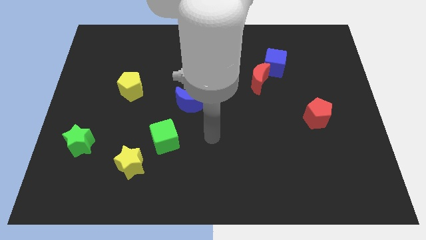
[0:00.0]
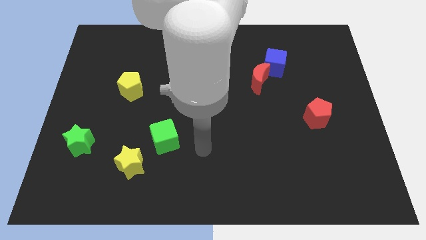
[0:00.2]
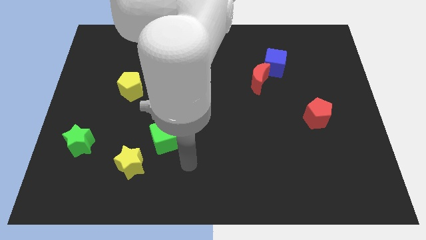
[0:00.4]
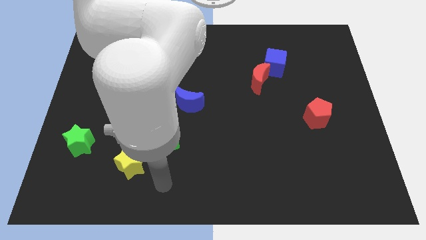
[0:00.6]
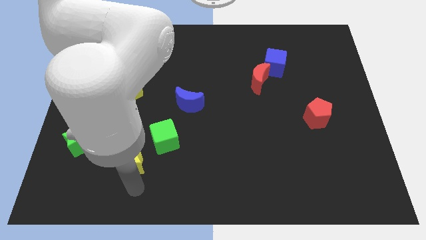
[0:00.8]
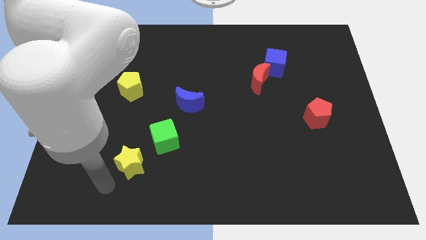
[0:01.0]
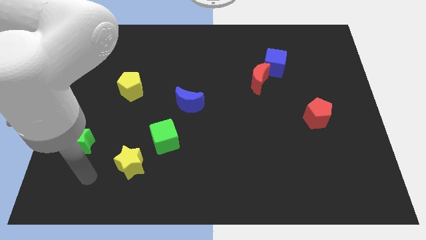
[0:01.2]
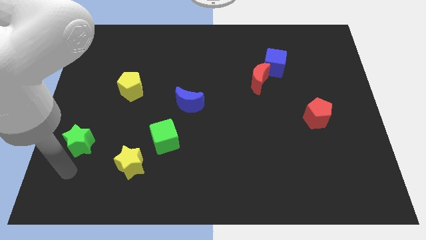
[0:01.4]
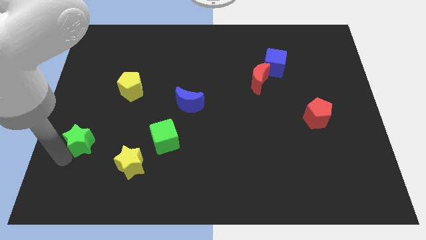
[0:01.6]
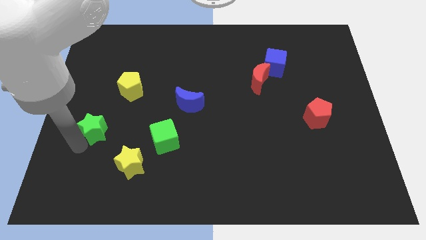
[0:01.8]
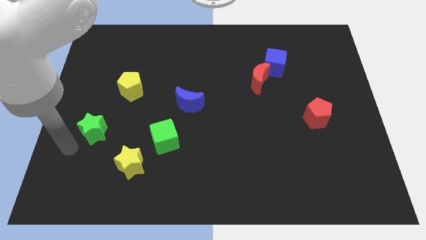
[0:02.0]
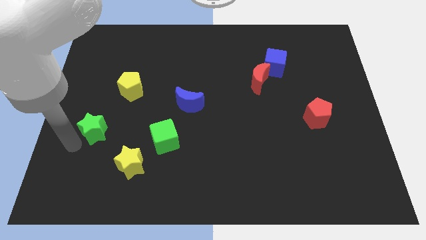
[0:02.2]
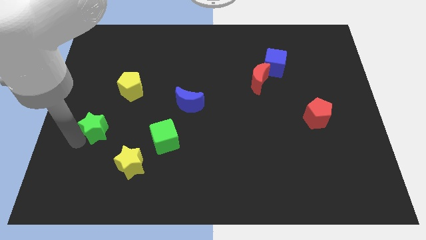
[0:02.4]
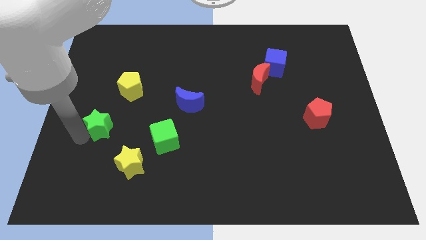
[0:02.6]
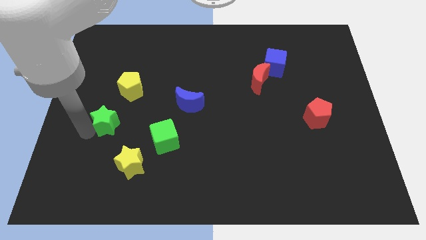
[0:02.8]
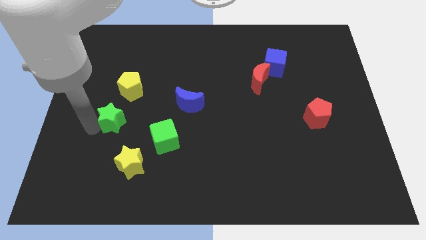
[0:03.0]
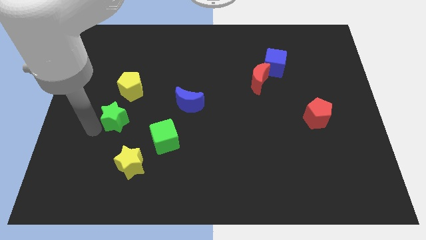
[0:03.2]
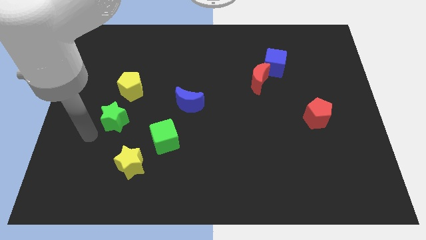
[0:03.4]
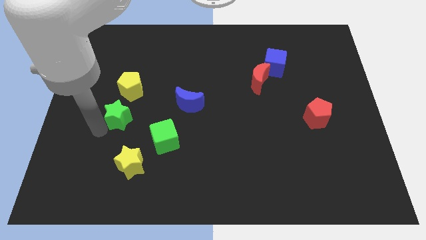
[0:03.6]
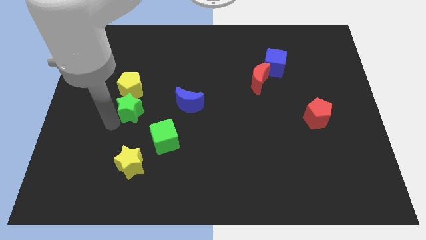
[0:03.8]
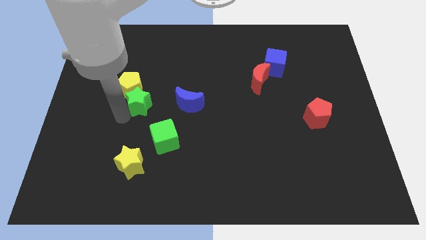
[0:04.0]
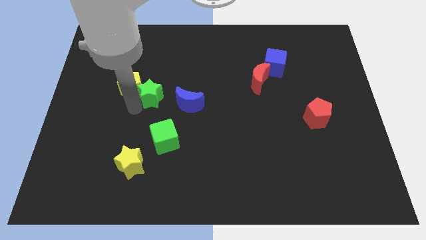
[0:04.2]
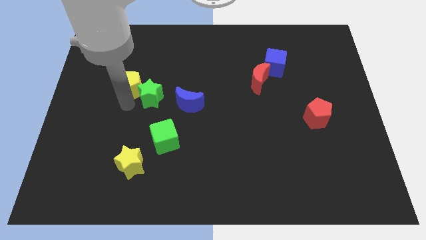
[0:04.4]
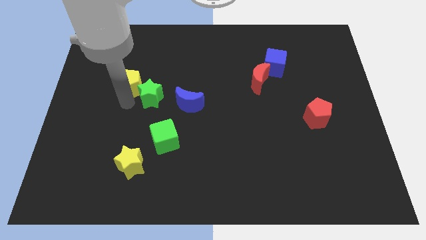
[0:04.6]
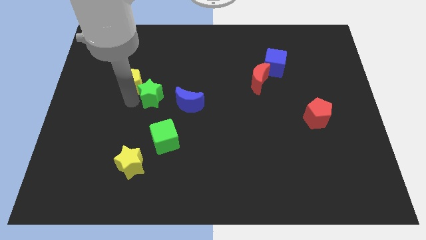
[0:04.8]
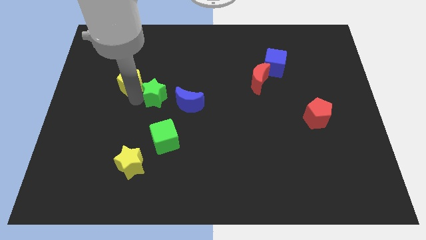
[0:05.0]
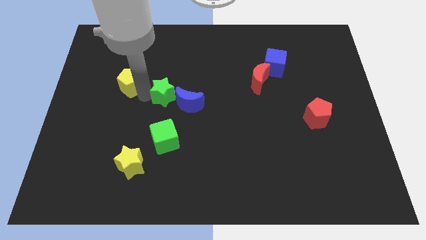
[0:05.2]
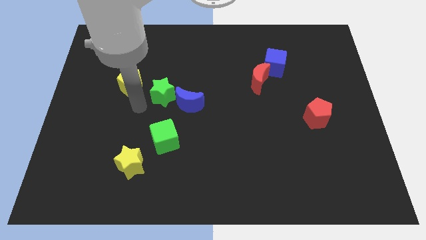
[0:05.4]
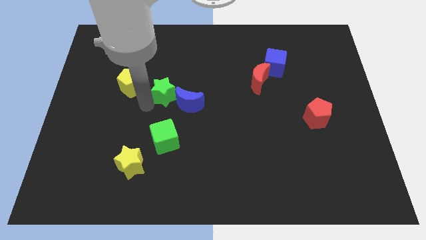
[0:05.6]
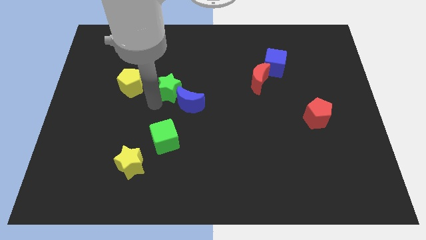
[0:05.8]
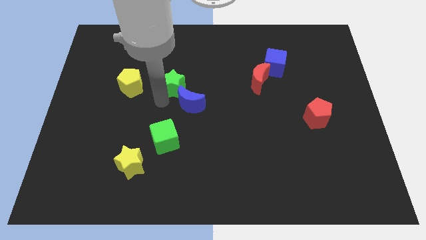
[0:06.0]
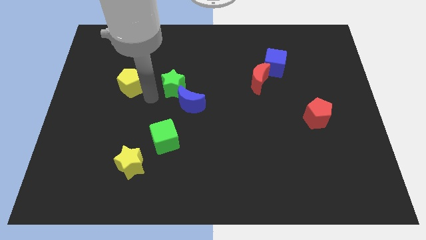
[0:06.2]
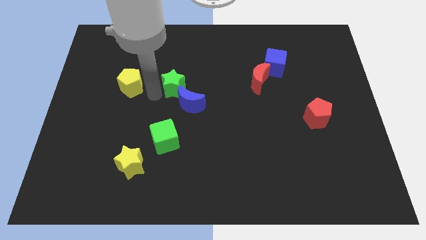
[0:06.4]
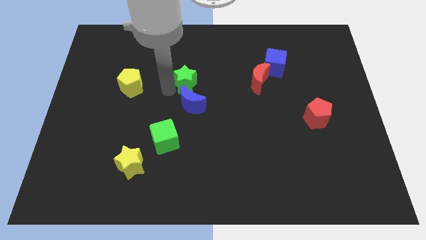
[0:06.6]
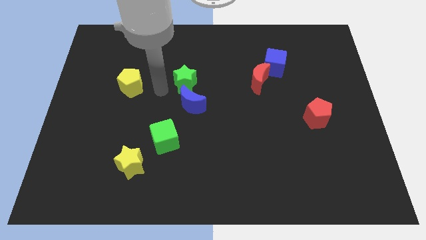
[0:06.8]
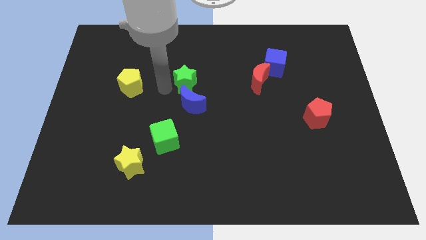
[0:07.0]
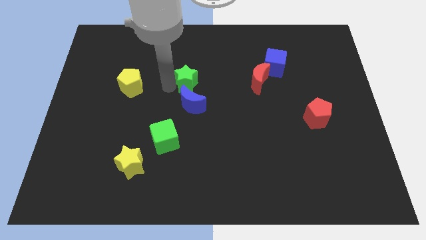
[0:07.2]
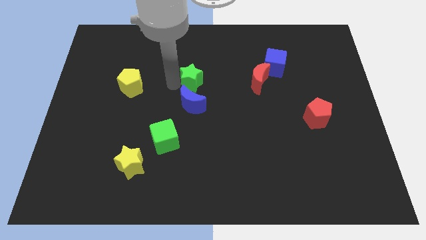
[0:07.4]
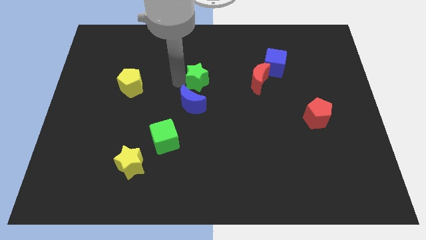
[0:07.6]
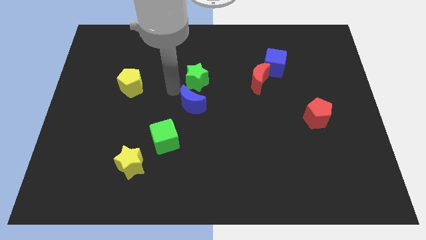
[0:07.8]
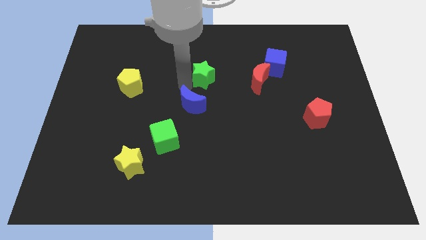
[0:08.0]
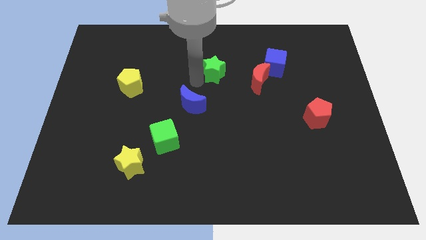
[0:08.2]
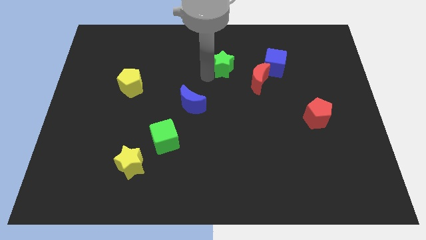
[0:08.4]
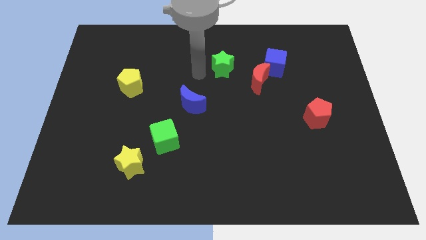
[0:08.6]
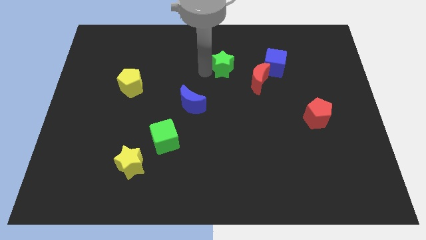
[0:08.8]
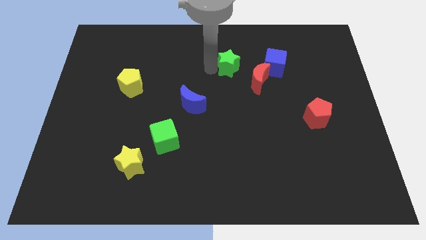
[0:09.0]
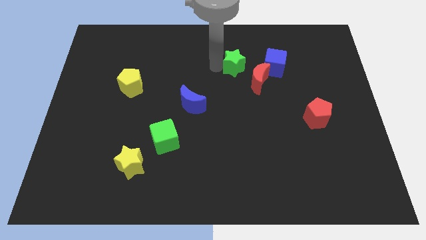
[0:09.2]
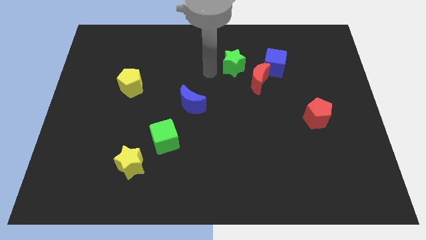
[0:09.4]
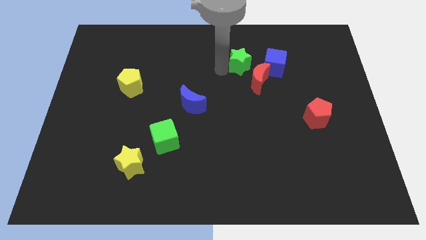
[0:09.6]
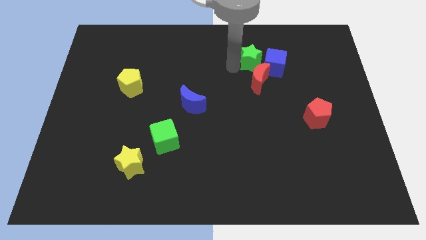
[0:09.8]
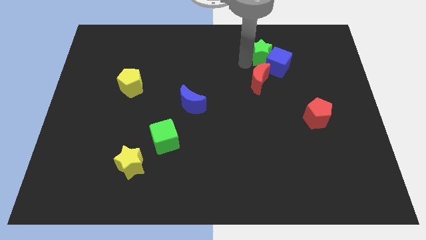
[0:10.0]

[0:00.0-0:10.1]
put the green star to the top right side of the red moon

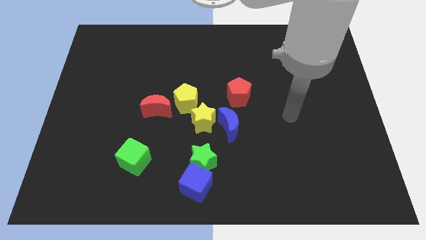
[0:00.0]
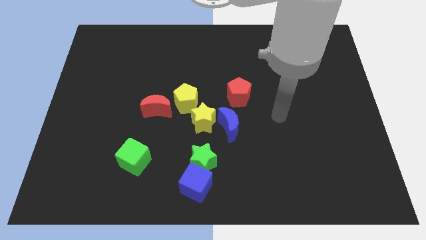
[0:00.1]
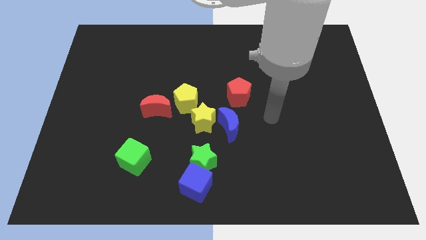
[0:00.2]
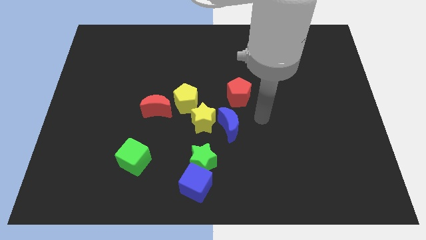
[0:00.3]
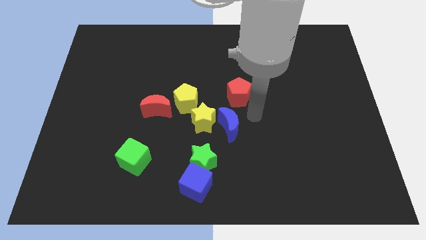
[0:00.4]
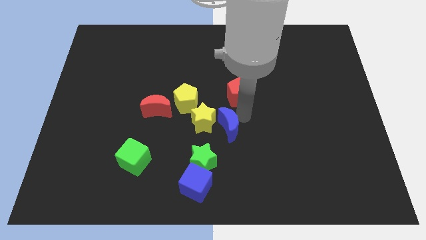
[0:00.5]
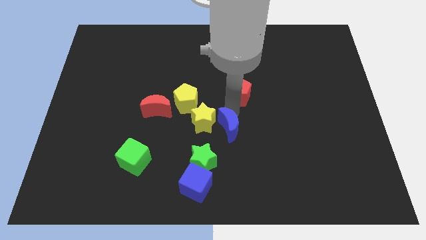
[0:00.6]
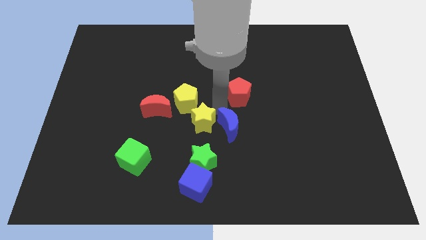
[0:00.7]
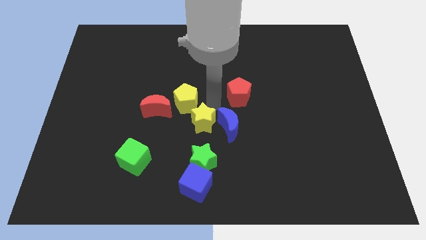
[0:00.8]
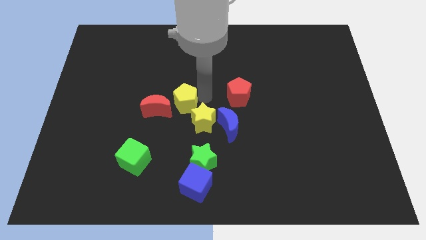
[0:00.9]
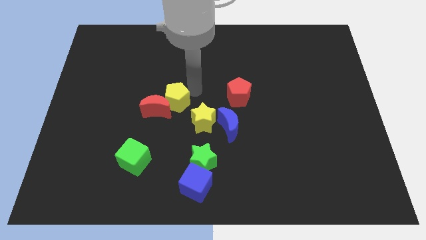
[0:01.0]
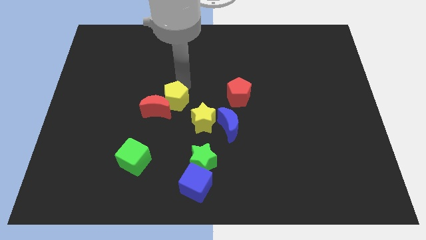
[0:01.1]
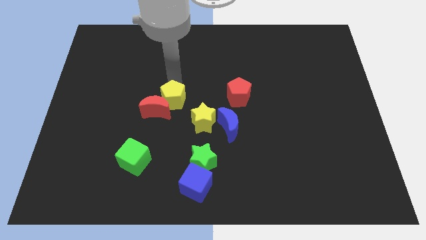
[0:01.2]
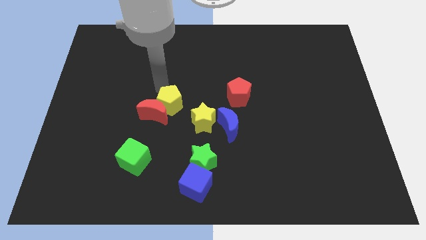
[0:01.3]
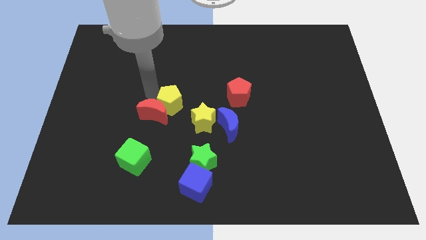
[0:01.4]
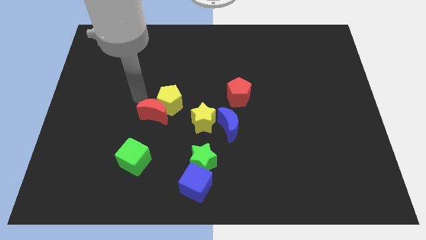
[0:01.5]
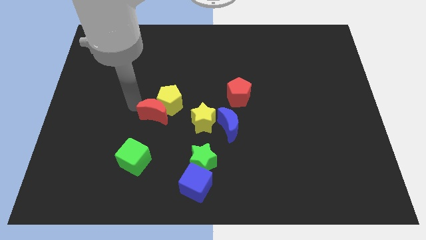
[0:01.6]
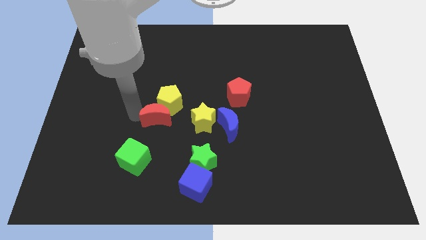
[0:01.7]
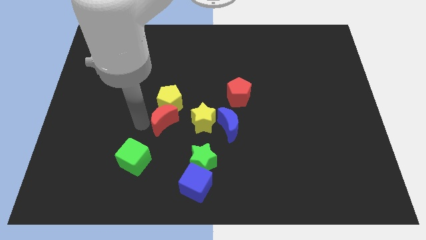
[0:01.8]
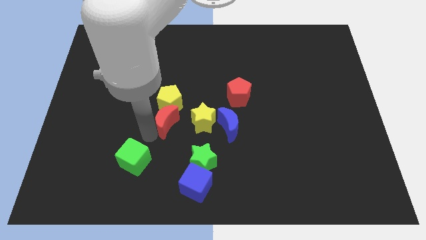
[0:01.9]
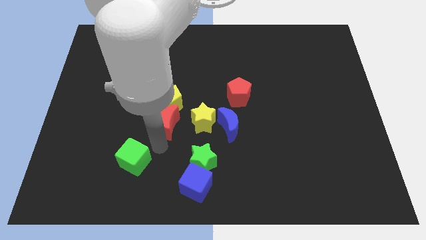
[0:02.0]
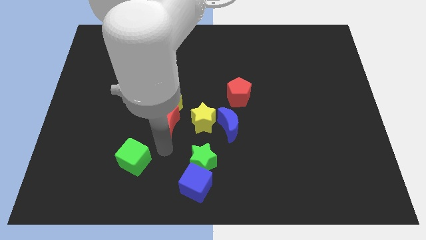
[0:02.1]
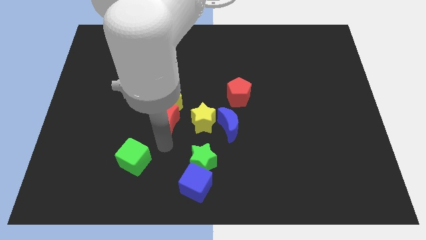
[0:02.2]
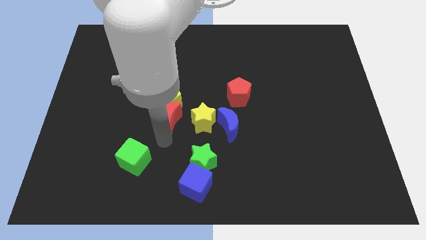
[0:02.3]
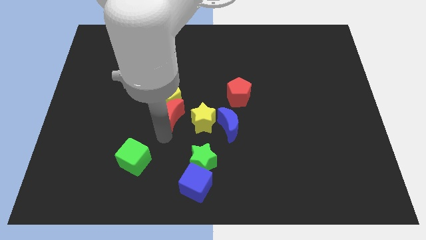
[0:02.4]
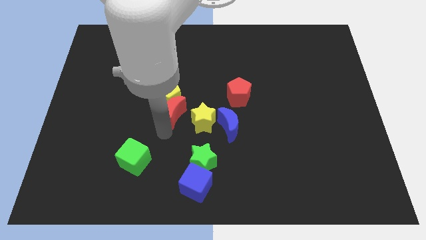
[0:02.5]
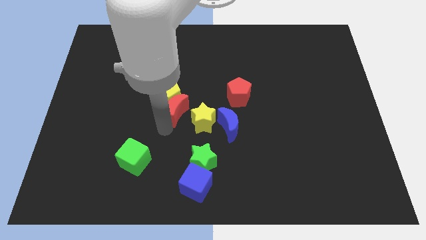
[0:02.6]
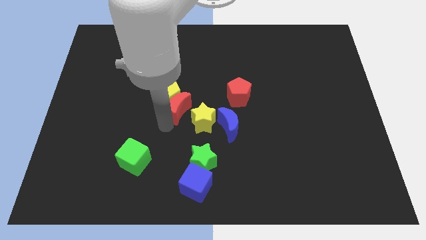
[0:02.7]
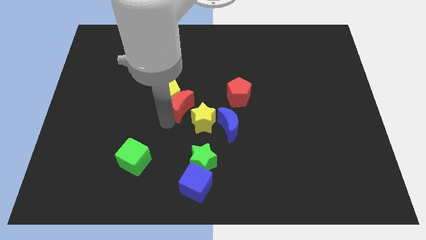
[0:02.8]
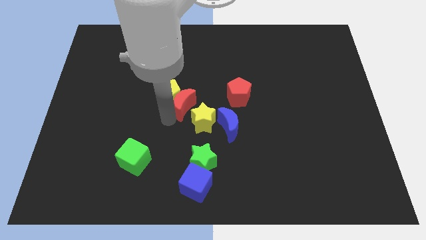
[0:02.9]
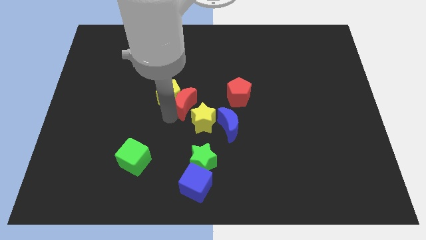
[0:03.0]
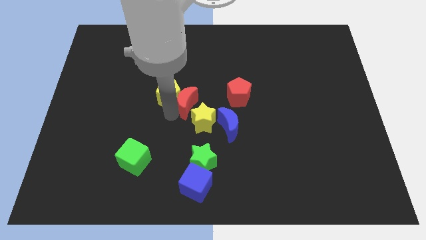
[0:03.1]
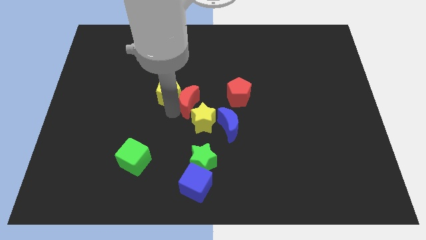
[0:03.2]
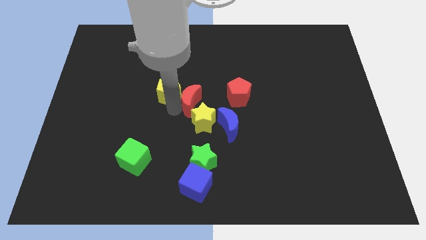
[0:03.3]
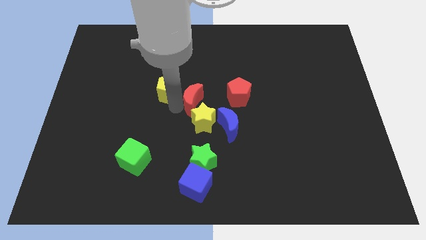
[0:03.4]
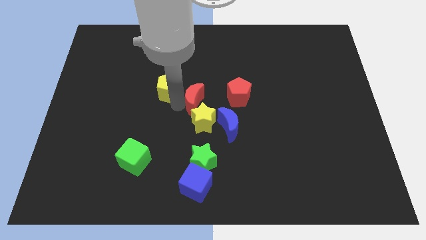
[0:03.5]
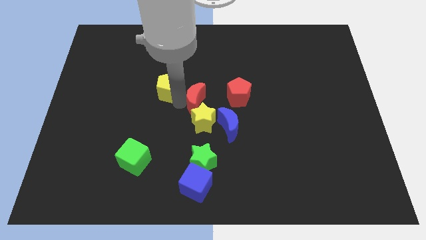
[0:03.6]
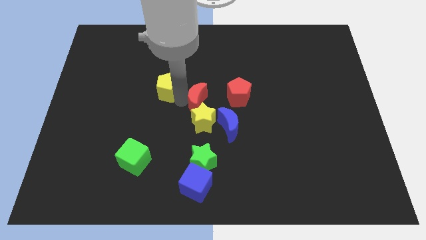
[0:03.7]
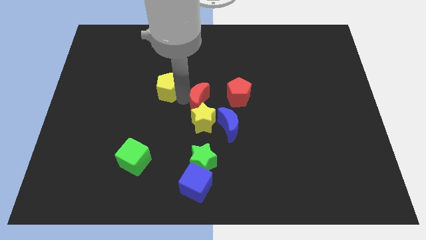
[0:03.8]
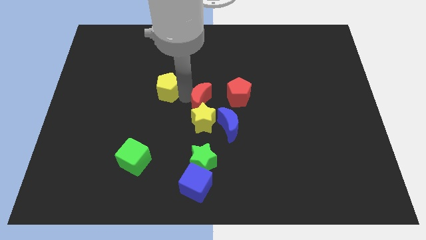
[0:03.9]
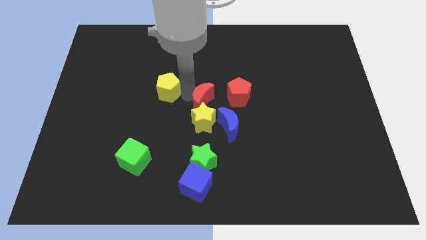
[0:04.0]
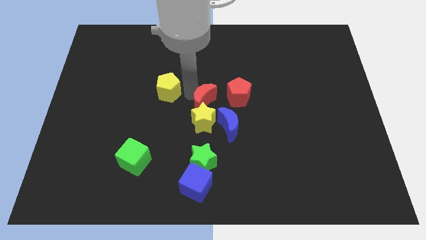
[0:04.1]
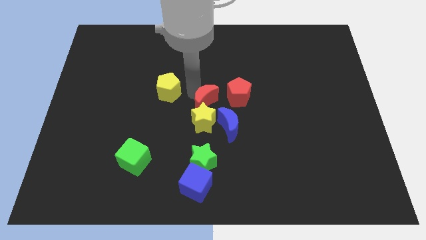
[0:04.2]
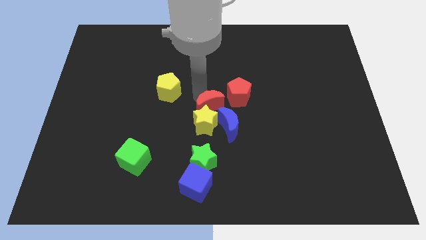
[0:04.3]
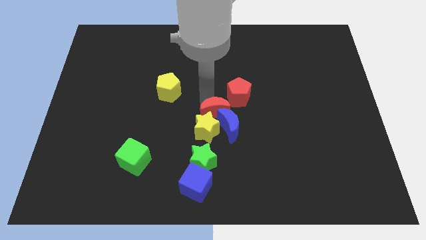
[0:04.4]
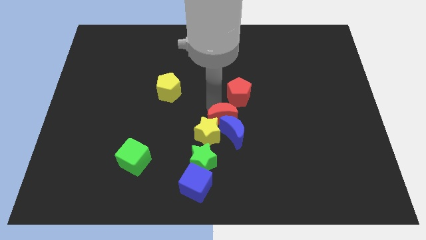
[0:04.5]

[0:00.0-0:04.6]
move the red moon right of the yellow star
